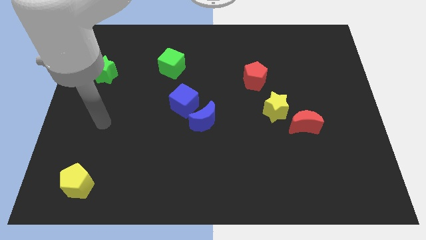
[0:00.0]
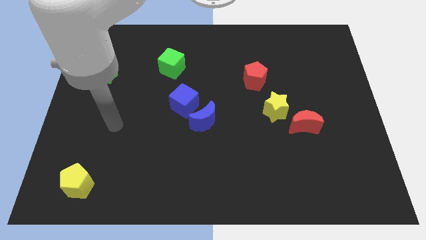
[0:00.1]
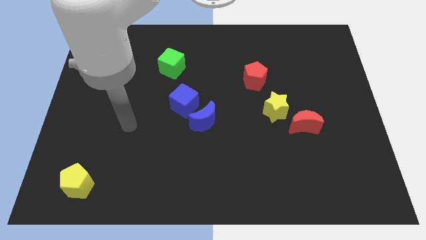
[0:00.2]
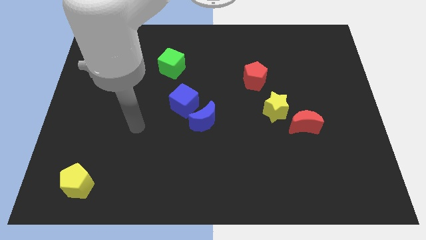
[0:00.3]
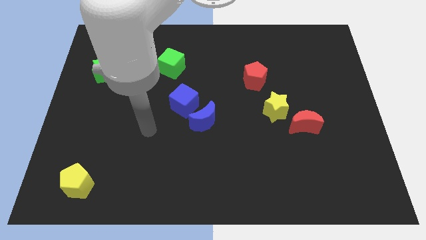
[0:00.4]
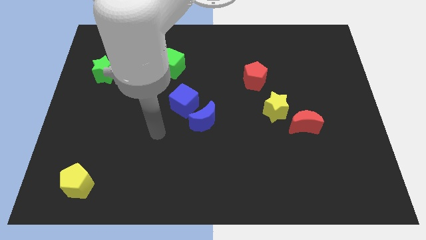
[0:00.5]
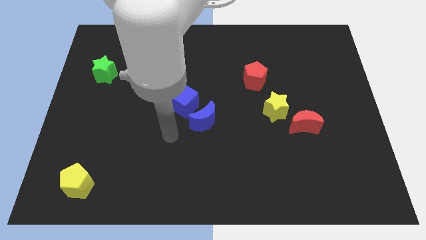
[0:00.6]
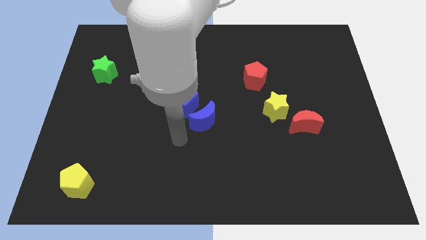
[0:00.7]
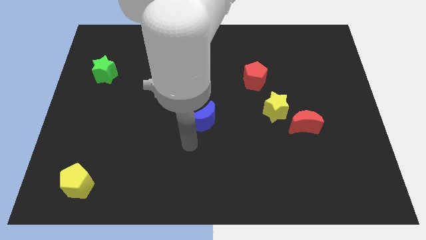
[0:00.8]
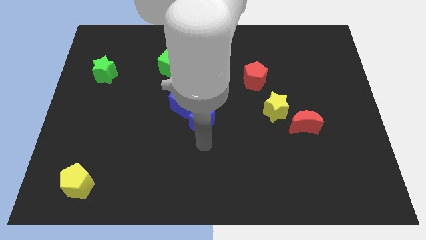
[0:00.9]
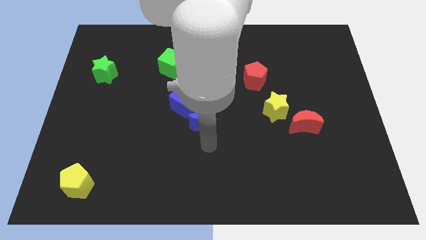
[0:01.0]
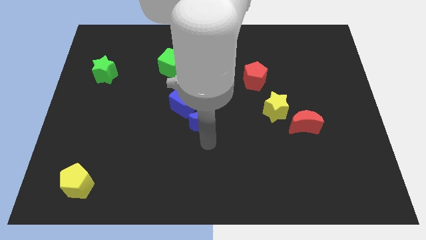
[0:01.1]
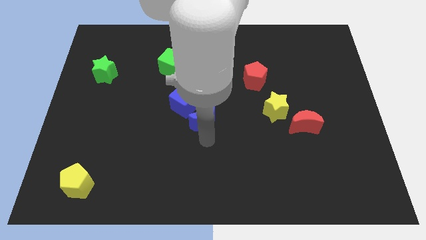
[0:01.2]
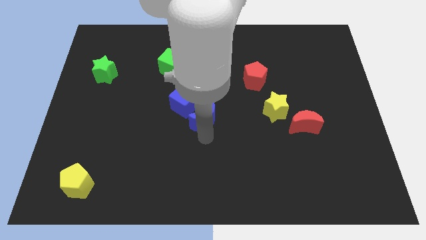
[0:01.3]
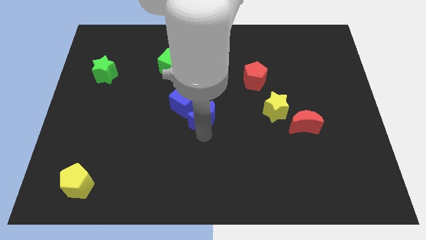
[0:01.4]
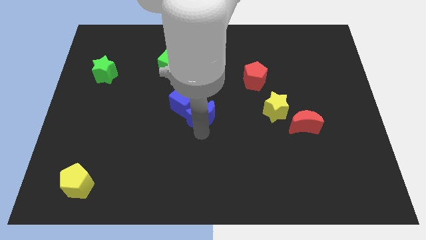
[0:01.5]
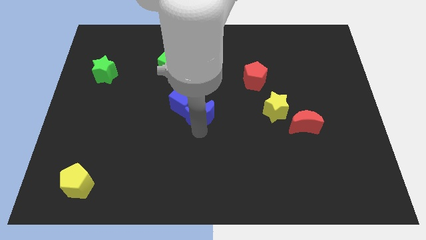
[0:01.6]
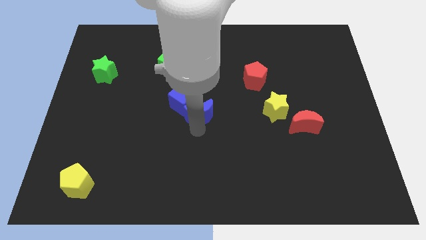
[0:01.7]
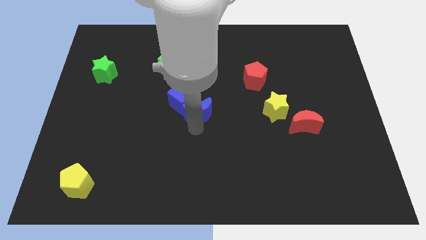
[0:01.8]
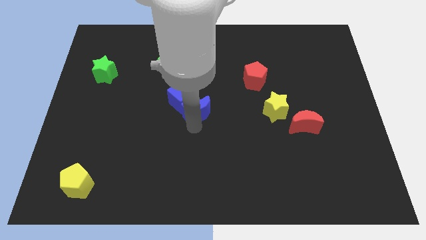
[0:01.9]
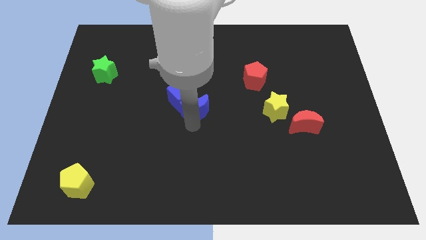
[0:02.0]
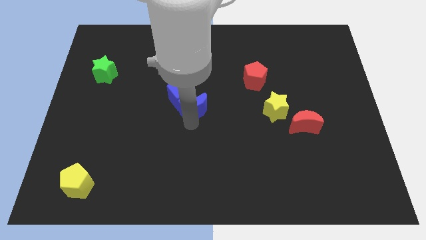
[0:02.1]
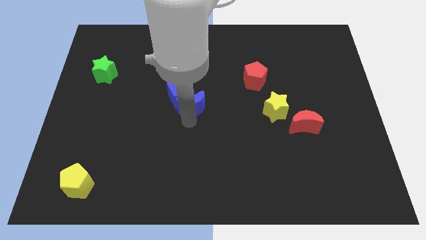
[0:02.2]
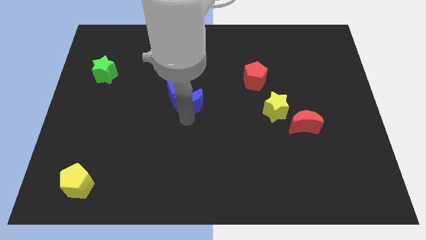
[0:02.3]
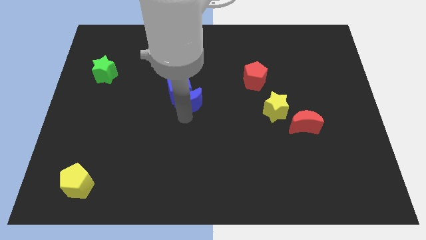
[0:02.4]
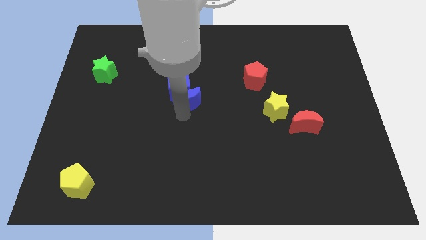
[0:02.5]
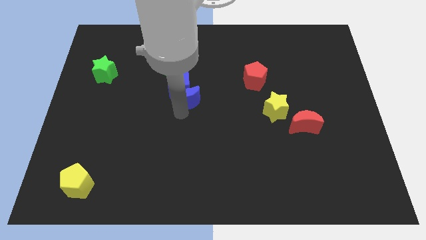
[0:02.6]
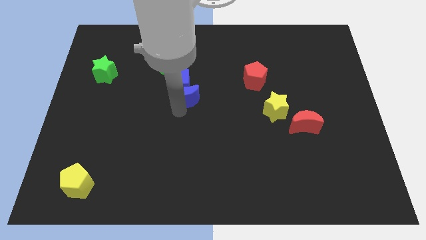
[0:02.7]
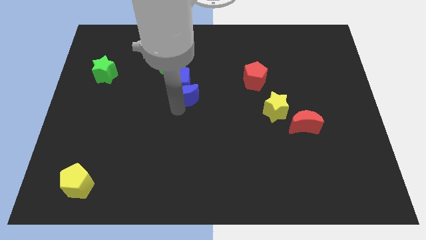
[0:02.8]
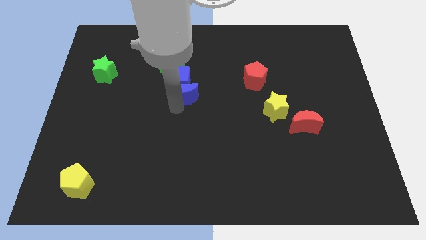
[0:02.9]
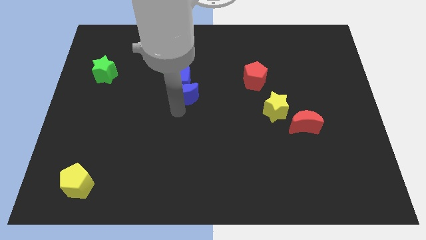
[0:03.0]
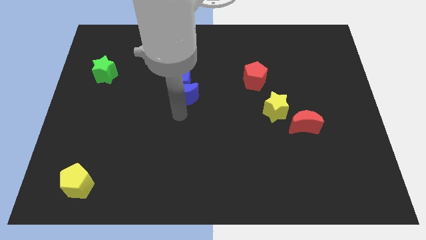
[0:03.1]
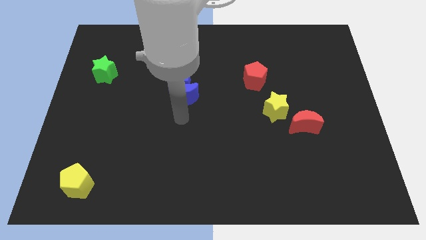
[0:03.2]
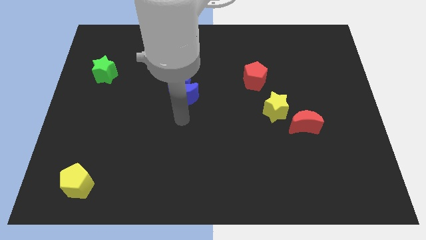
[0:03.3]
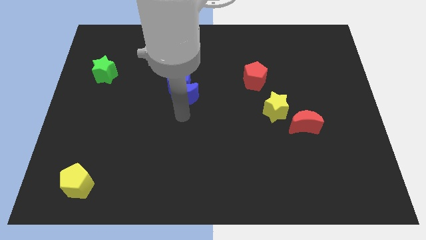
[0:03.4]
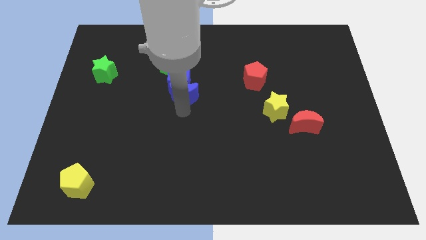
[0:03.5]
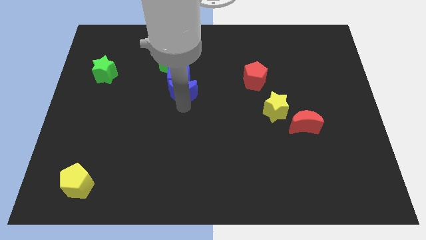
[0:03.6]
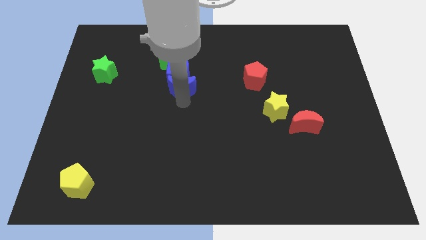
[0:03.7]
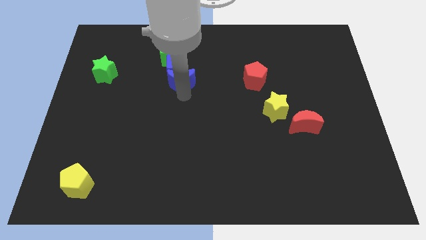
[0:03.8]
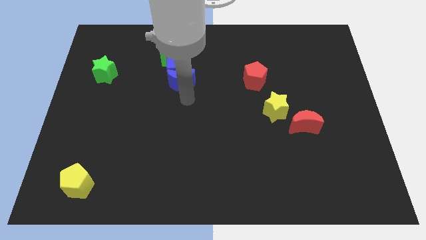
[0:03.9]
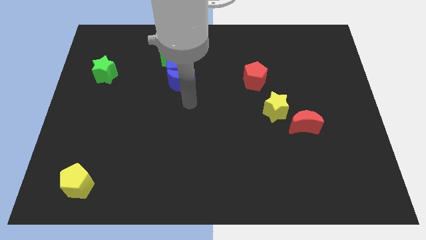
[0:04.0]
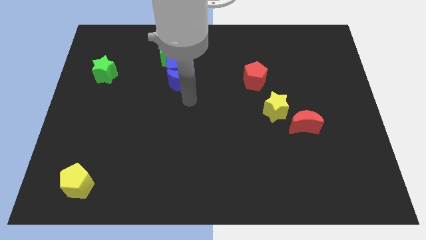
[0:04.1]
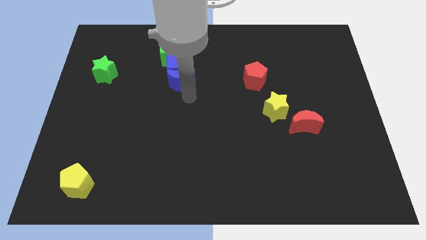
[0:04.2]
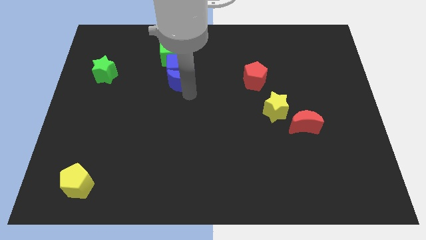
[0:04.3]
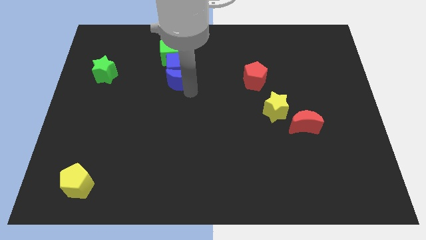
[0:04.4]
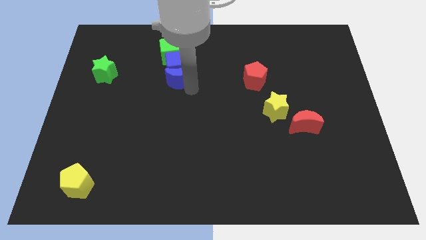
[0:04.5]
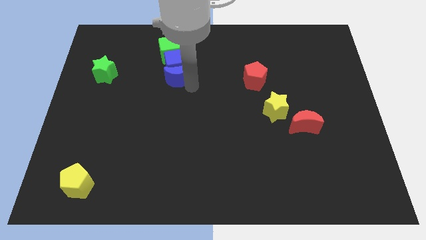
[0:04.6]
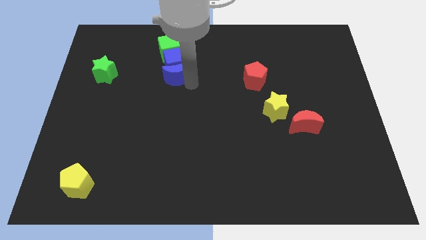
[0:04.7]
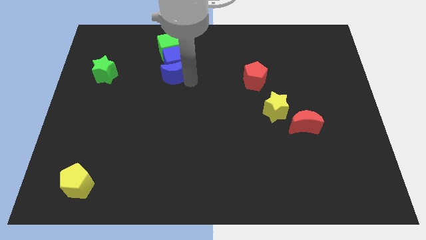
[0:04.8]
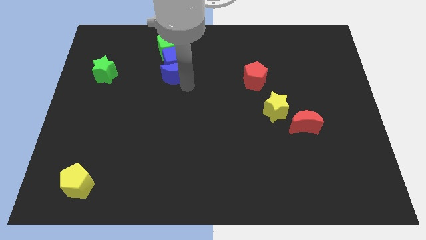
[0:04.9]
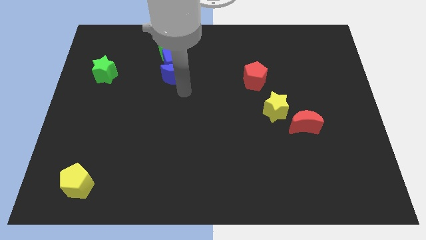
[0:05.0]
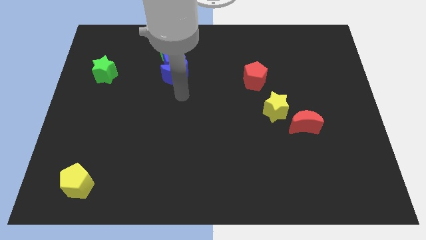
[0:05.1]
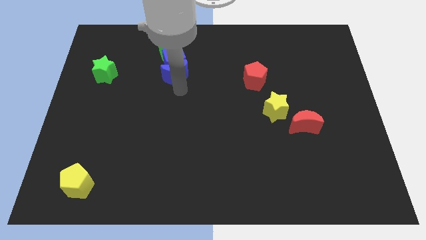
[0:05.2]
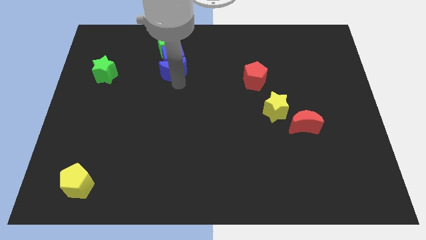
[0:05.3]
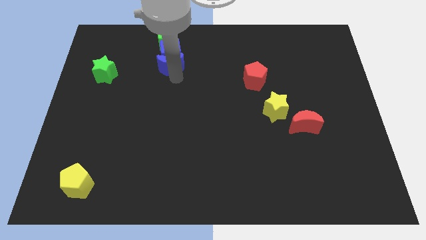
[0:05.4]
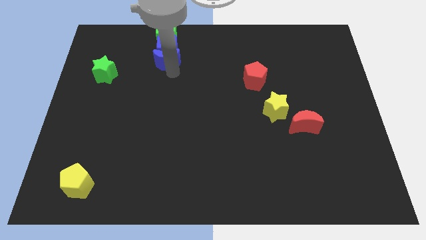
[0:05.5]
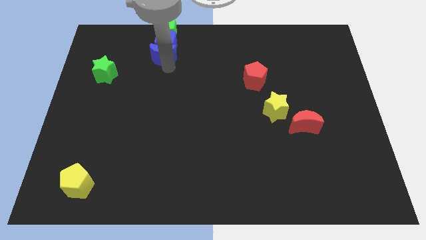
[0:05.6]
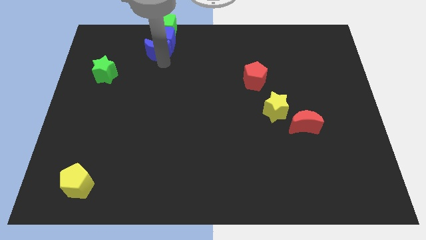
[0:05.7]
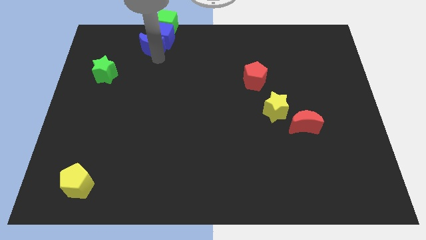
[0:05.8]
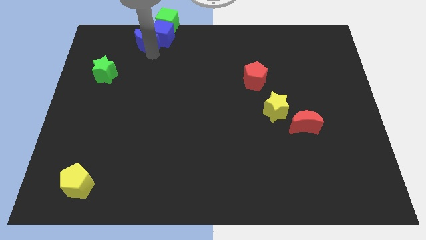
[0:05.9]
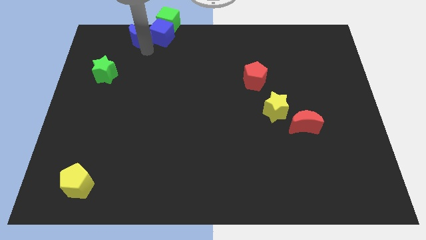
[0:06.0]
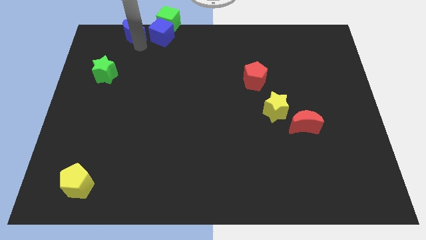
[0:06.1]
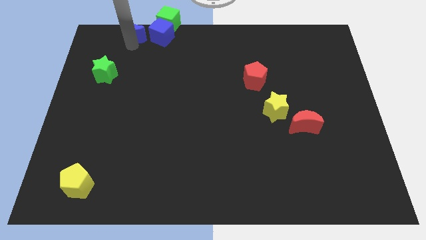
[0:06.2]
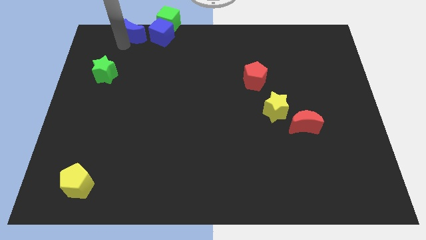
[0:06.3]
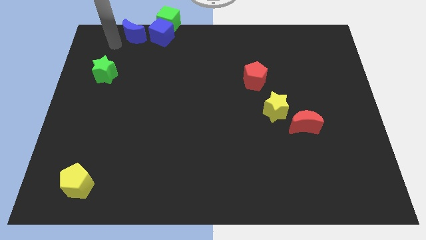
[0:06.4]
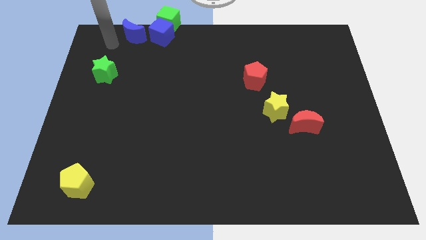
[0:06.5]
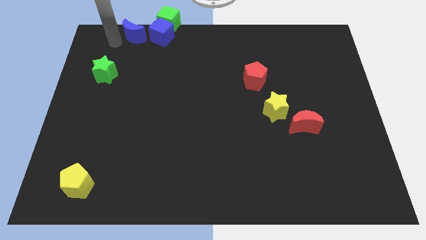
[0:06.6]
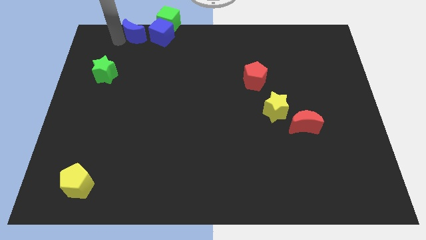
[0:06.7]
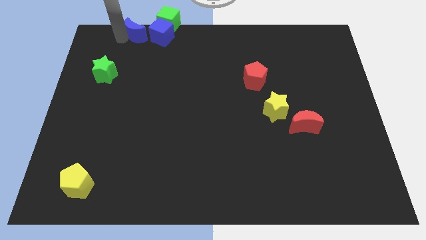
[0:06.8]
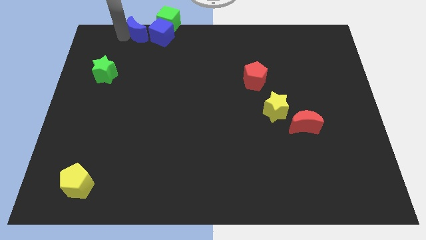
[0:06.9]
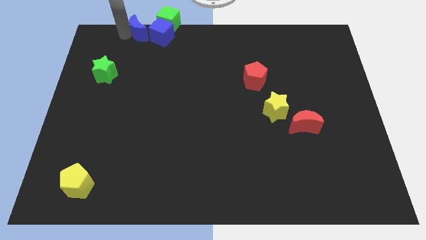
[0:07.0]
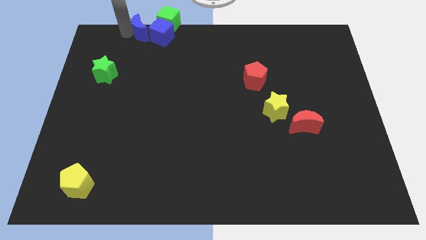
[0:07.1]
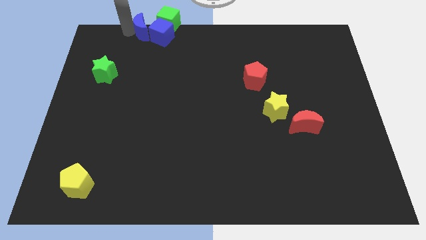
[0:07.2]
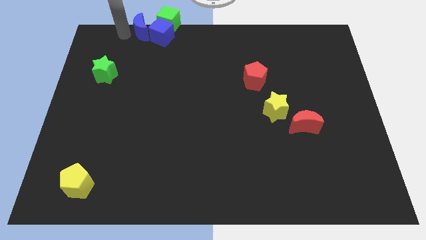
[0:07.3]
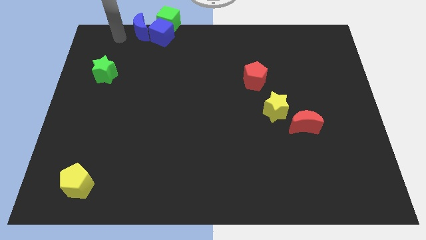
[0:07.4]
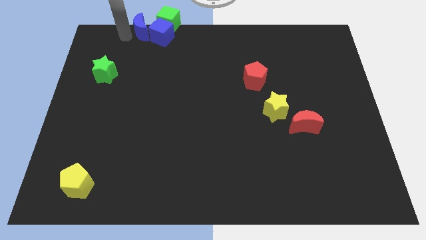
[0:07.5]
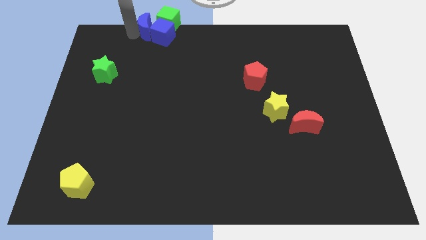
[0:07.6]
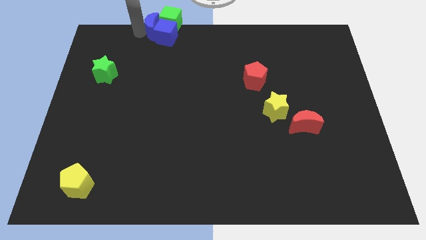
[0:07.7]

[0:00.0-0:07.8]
slide the blue moon towards the green cube

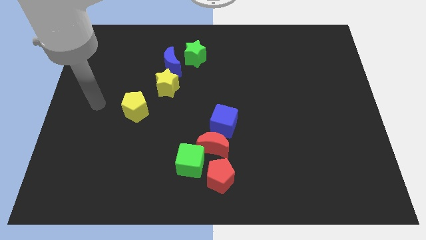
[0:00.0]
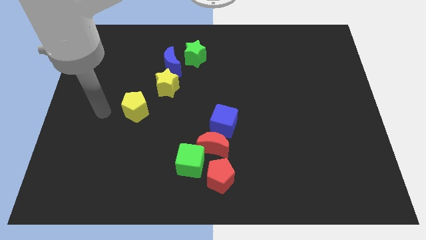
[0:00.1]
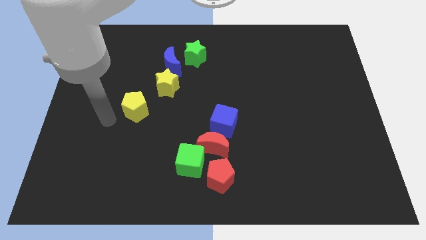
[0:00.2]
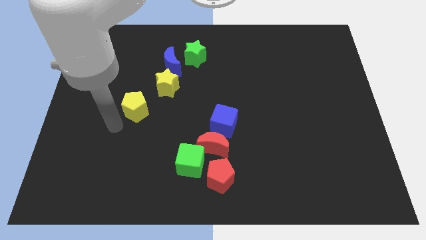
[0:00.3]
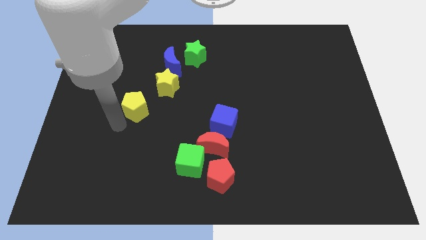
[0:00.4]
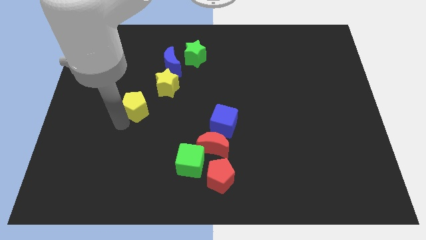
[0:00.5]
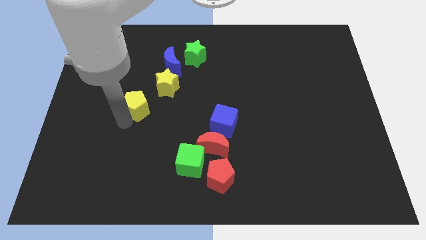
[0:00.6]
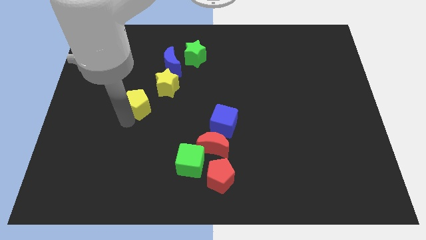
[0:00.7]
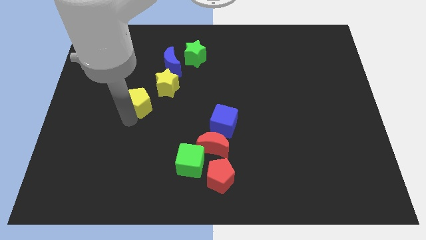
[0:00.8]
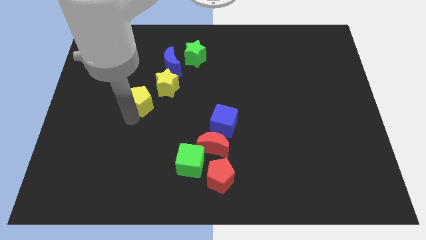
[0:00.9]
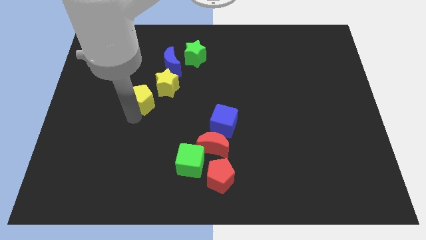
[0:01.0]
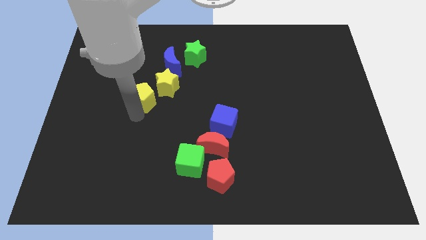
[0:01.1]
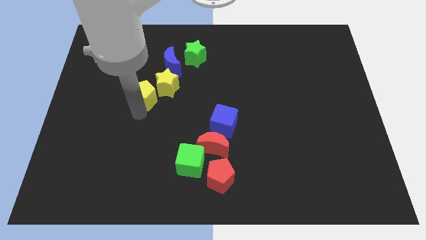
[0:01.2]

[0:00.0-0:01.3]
put the yellow pentagon towards the yellow star
